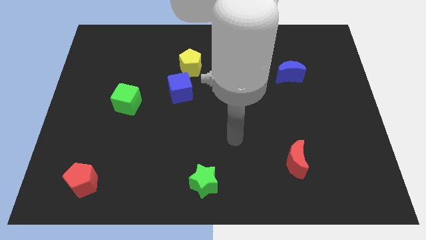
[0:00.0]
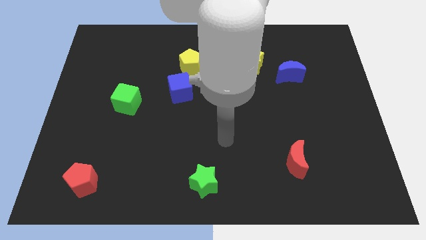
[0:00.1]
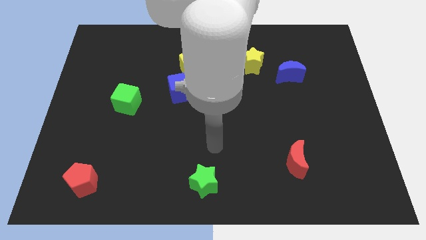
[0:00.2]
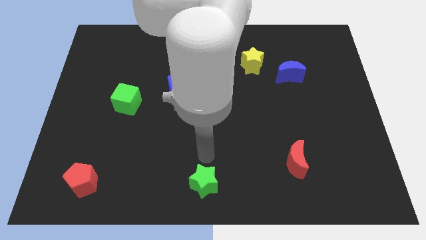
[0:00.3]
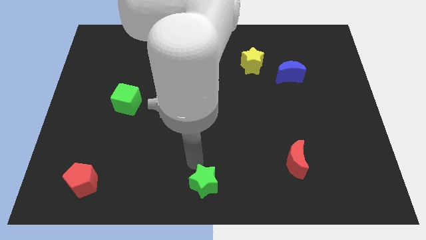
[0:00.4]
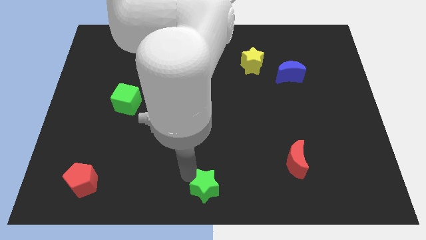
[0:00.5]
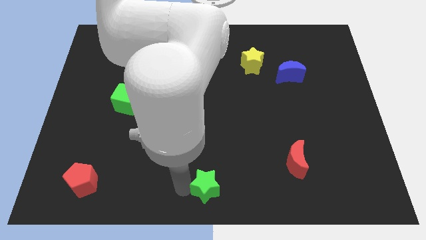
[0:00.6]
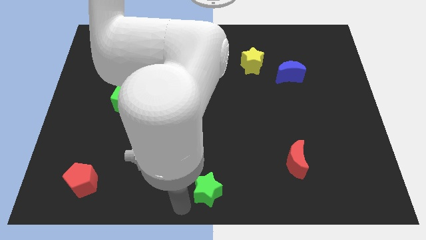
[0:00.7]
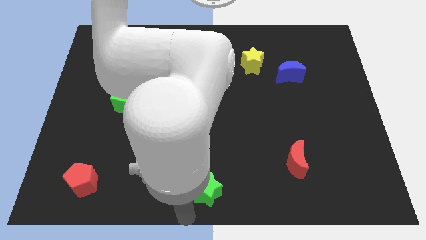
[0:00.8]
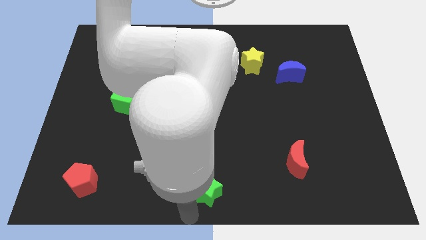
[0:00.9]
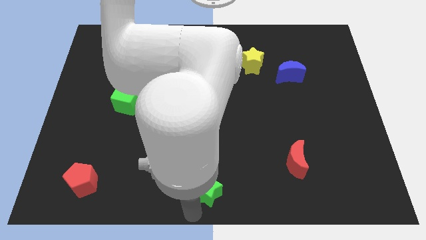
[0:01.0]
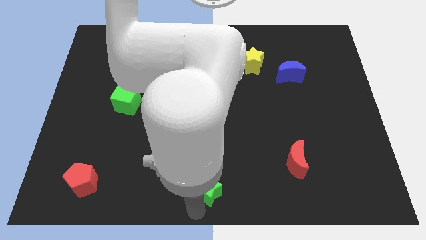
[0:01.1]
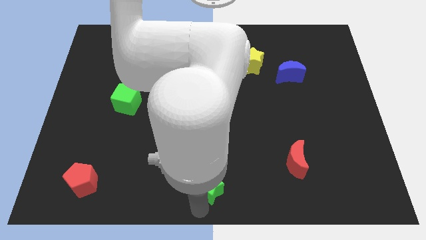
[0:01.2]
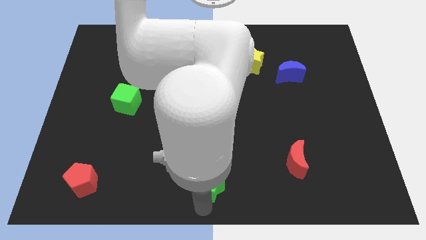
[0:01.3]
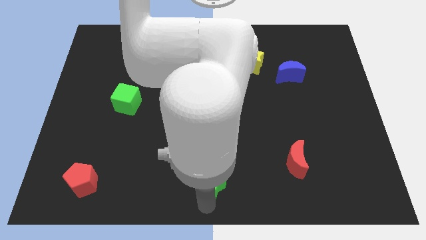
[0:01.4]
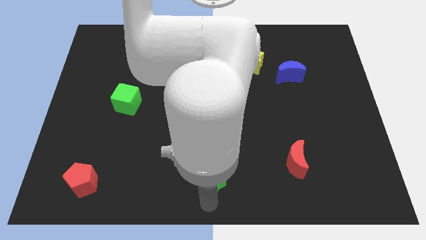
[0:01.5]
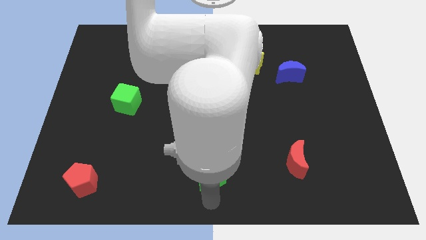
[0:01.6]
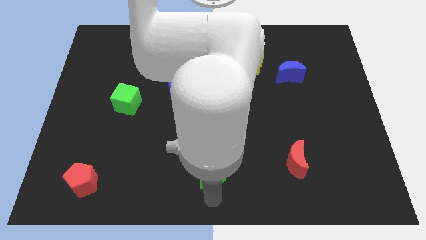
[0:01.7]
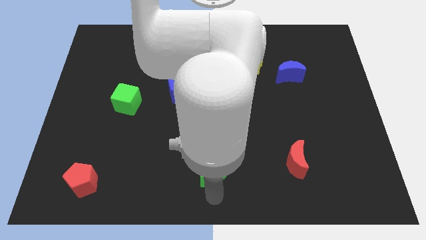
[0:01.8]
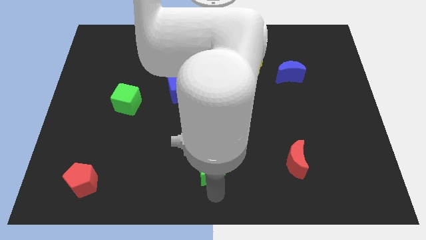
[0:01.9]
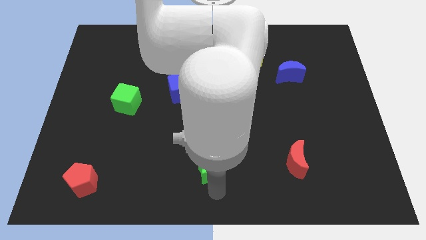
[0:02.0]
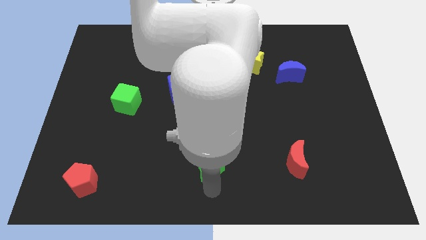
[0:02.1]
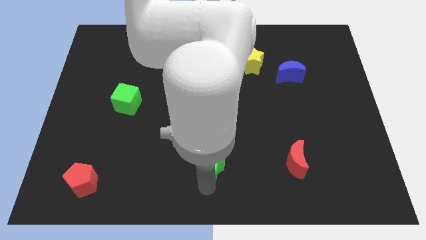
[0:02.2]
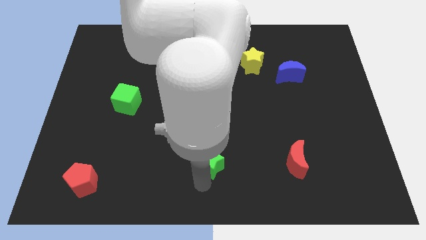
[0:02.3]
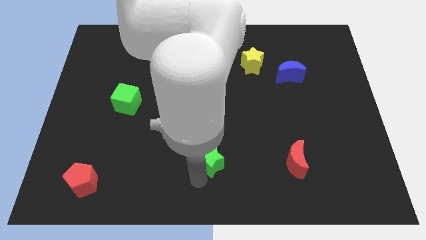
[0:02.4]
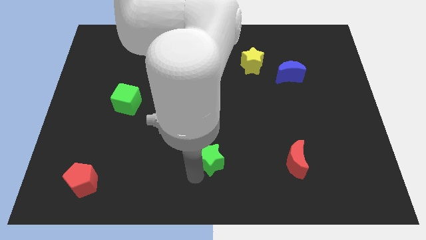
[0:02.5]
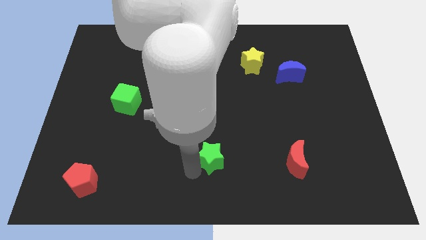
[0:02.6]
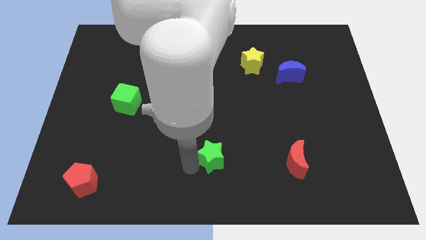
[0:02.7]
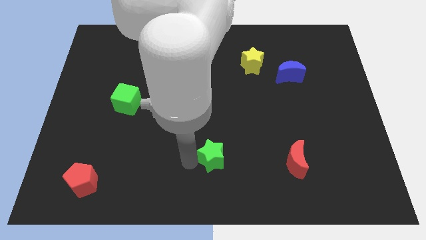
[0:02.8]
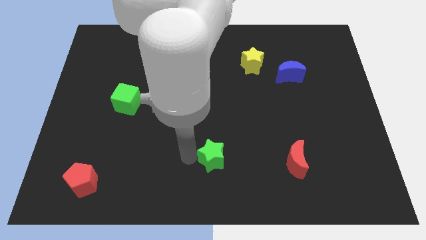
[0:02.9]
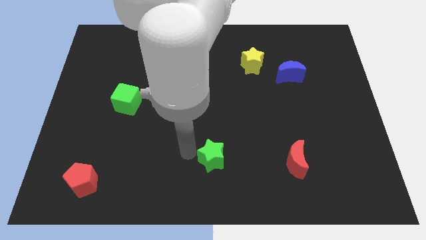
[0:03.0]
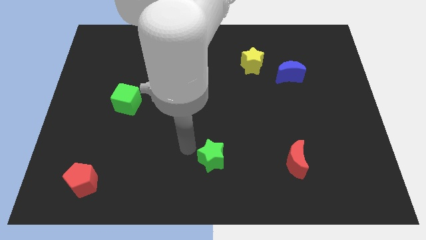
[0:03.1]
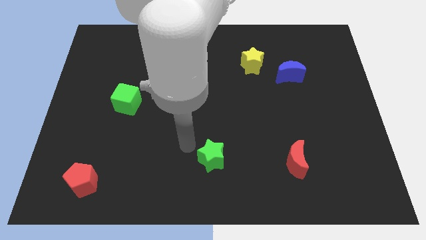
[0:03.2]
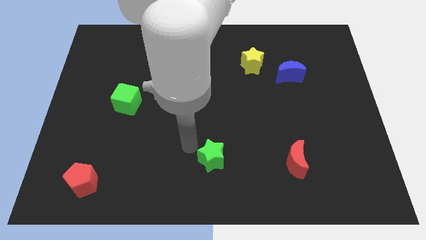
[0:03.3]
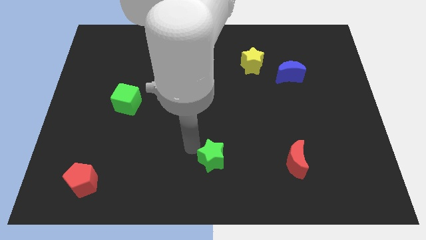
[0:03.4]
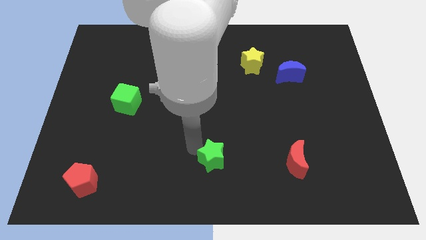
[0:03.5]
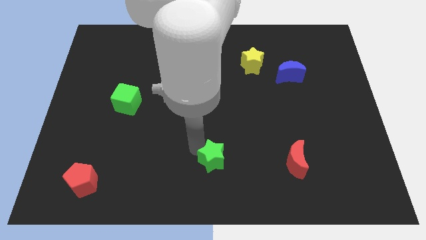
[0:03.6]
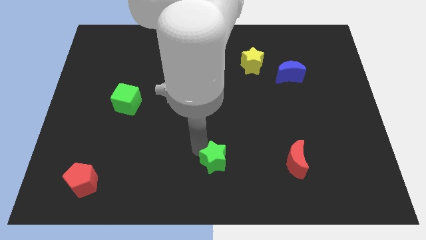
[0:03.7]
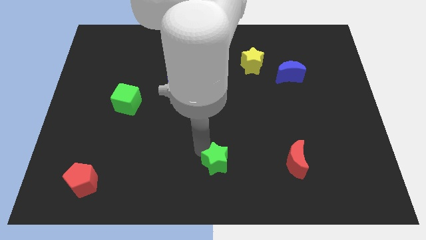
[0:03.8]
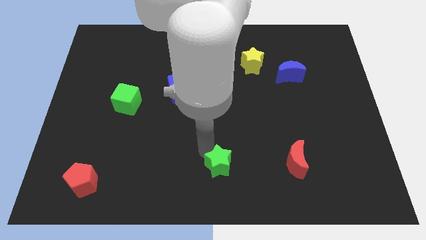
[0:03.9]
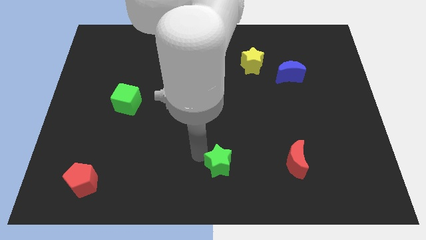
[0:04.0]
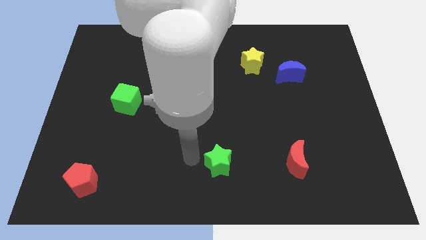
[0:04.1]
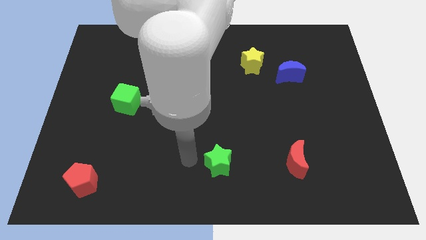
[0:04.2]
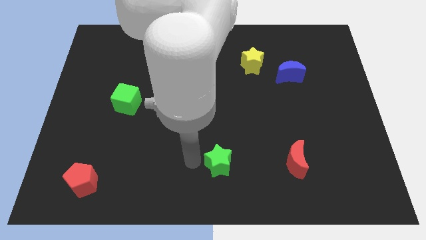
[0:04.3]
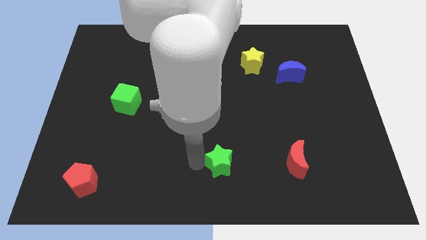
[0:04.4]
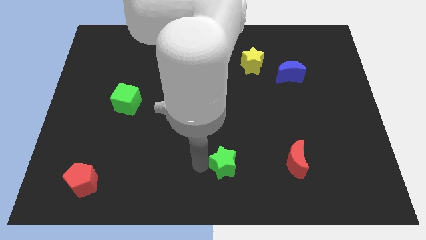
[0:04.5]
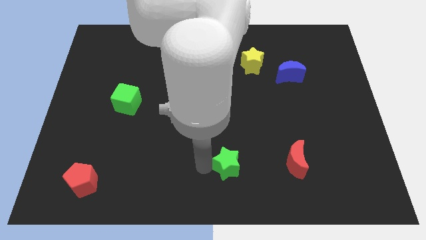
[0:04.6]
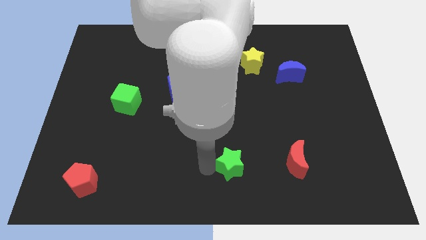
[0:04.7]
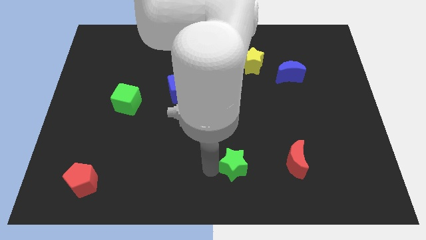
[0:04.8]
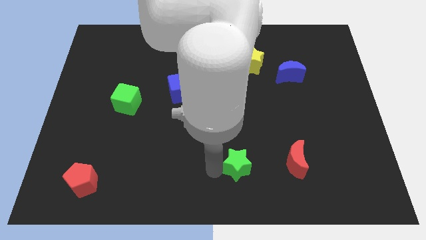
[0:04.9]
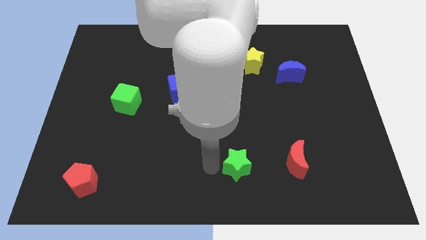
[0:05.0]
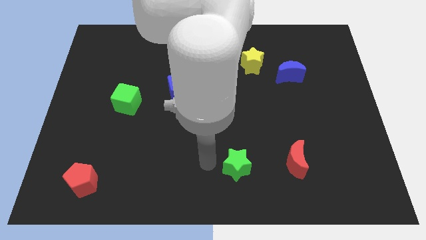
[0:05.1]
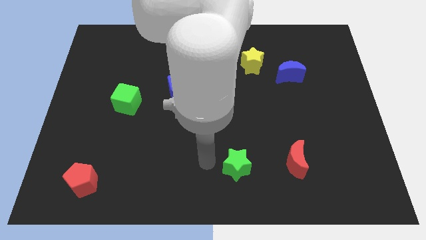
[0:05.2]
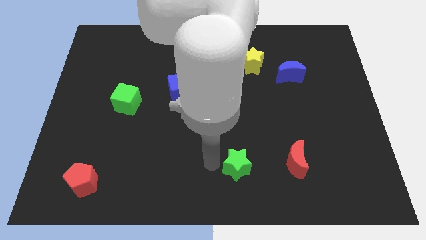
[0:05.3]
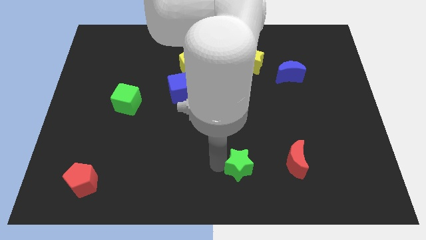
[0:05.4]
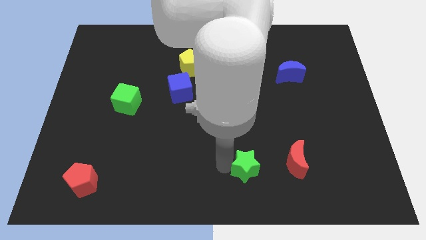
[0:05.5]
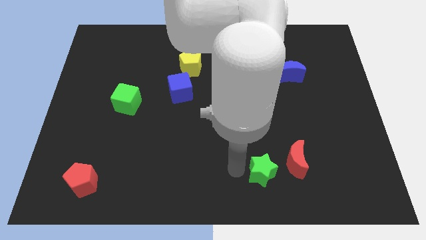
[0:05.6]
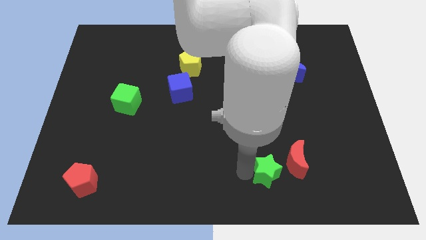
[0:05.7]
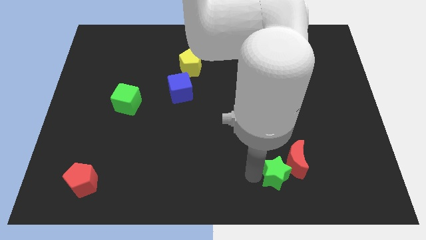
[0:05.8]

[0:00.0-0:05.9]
move the green star next to the red moon
